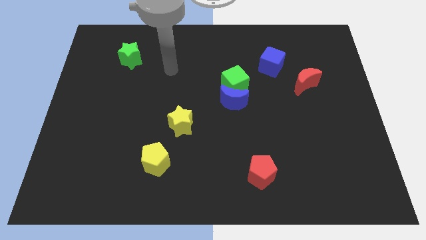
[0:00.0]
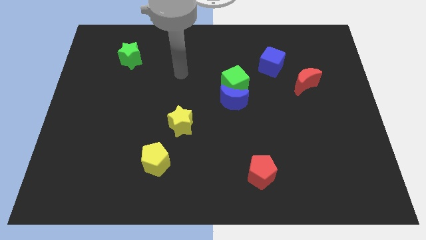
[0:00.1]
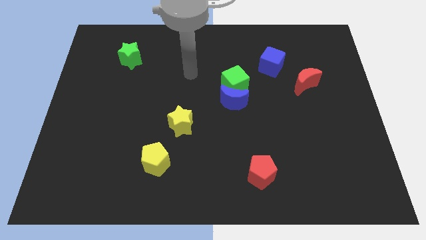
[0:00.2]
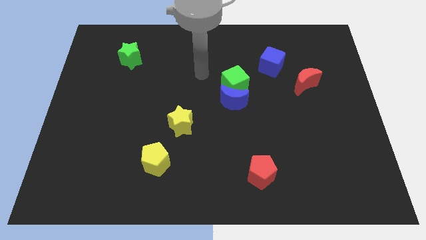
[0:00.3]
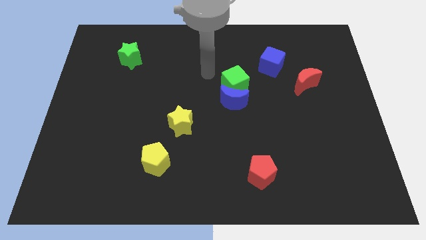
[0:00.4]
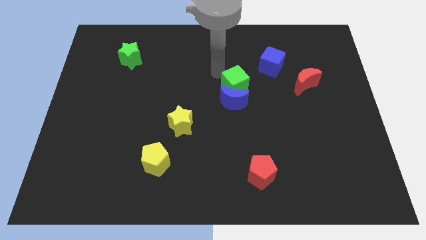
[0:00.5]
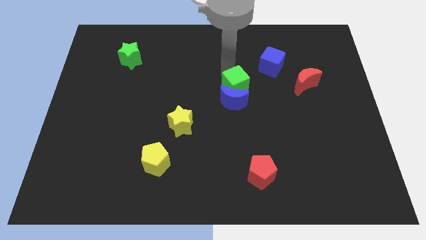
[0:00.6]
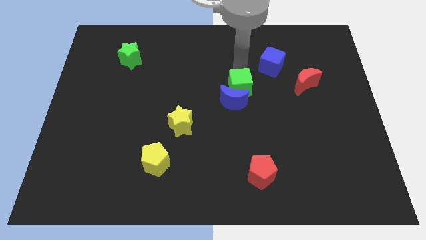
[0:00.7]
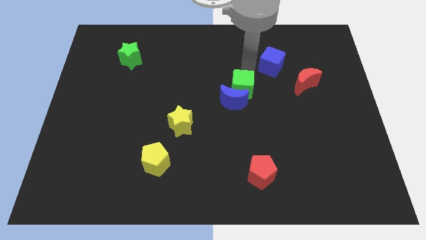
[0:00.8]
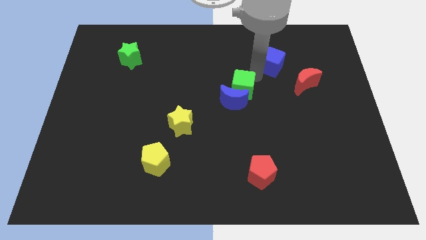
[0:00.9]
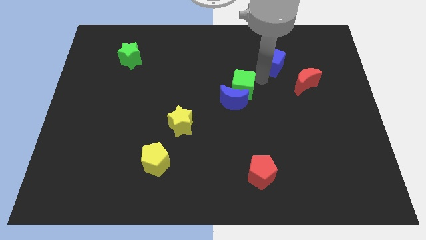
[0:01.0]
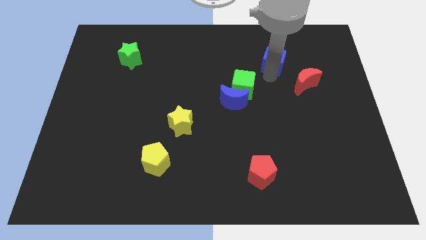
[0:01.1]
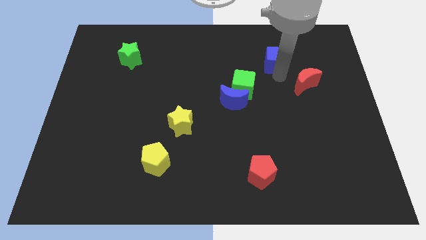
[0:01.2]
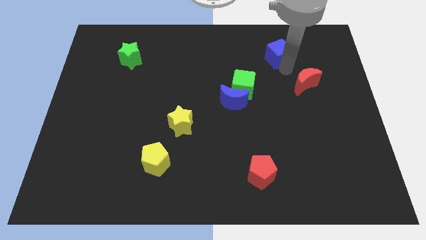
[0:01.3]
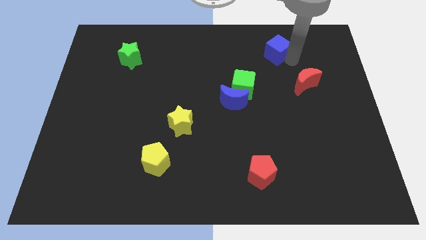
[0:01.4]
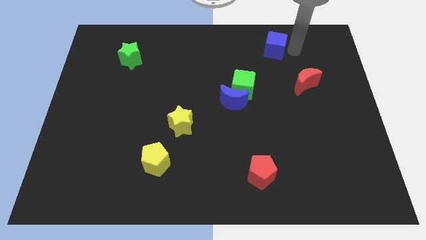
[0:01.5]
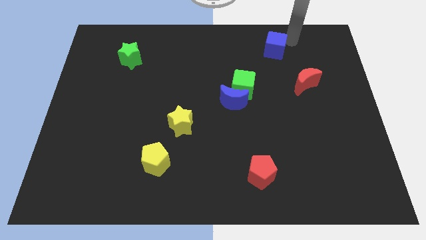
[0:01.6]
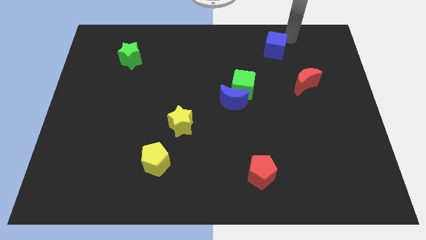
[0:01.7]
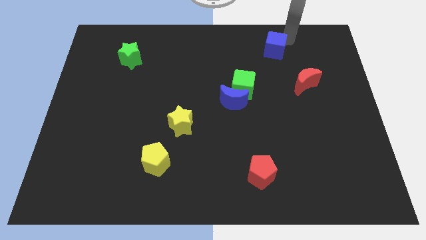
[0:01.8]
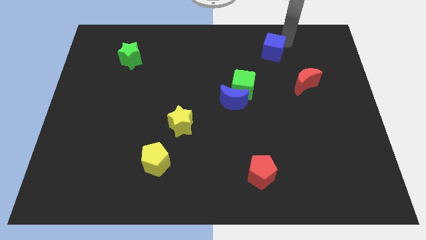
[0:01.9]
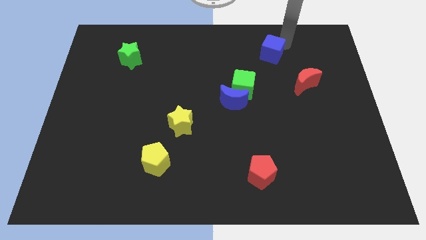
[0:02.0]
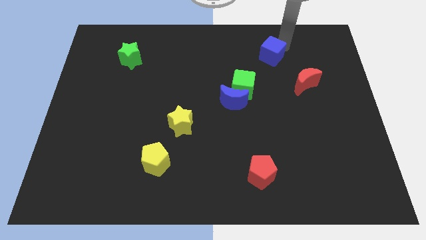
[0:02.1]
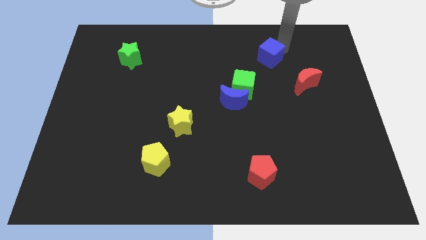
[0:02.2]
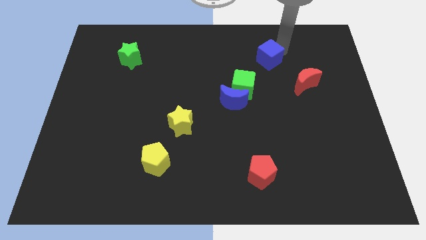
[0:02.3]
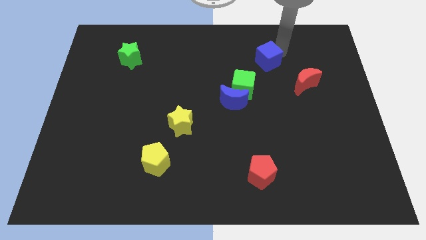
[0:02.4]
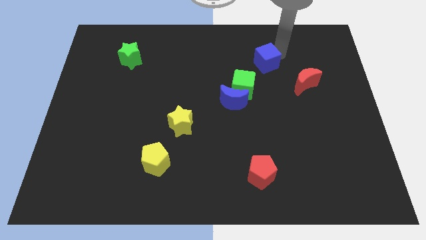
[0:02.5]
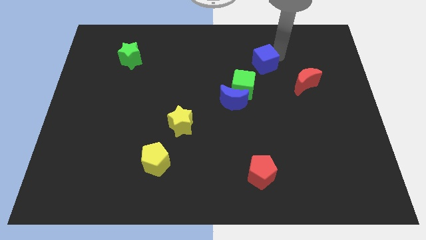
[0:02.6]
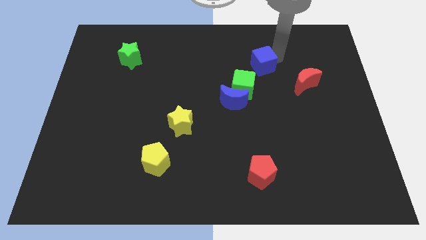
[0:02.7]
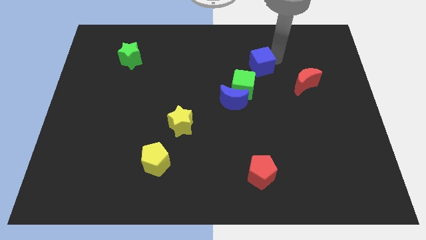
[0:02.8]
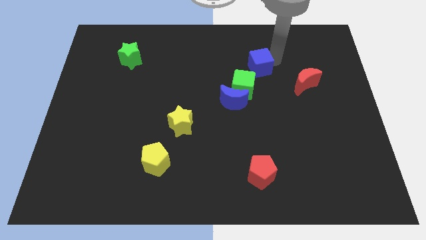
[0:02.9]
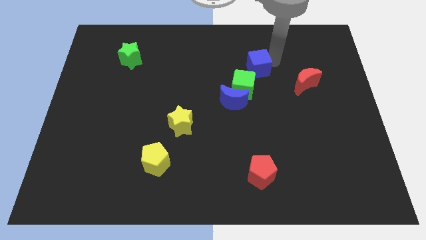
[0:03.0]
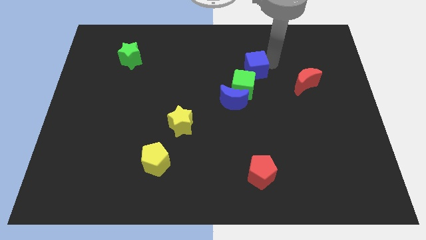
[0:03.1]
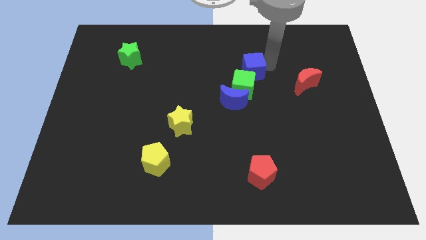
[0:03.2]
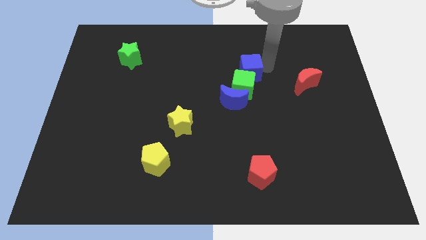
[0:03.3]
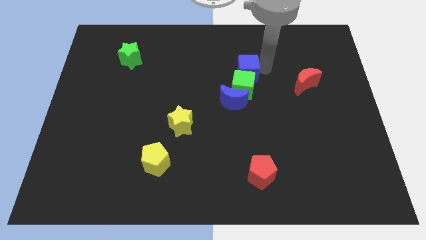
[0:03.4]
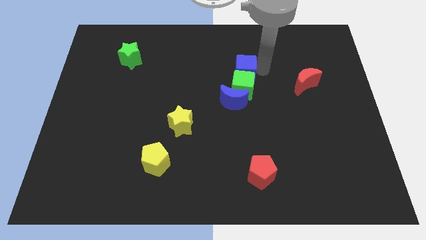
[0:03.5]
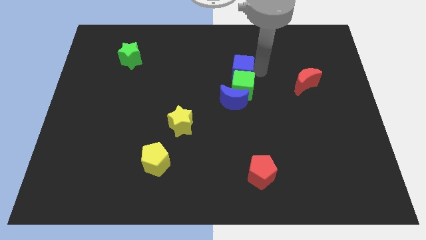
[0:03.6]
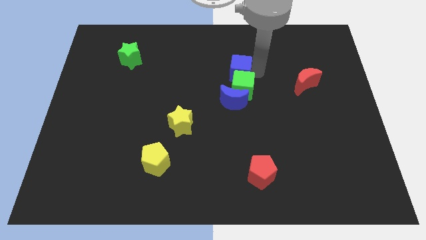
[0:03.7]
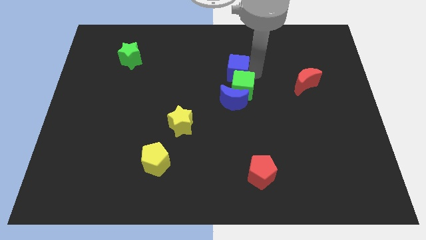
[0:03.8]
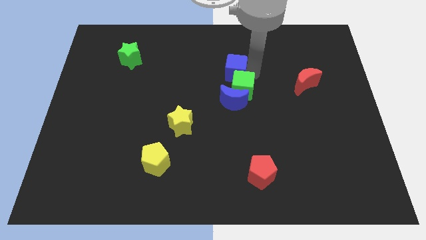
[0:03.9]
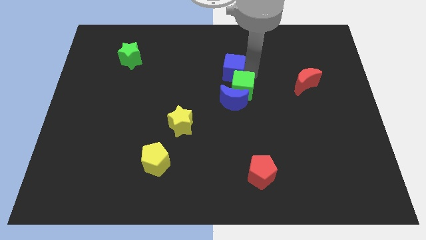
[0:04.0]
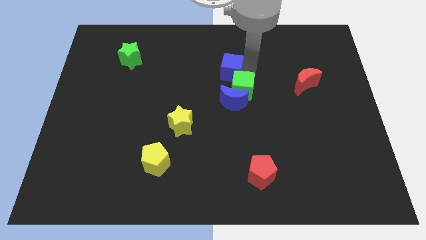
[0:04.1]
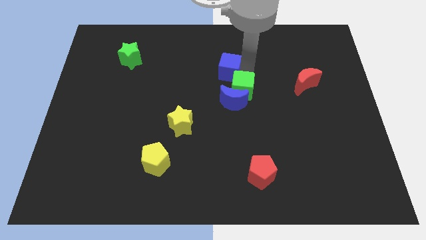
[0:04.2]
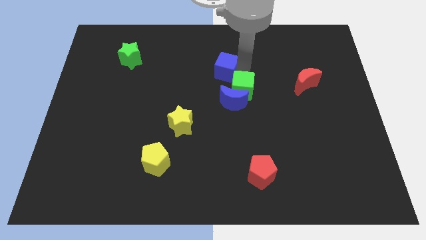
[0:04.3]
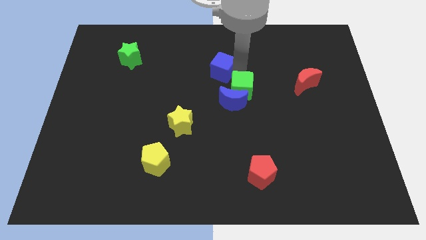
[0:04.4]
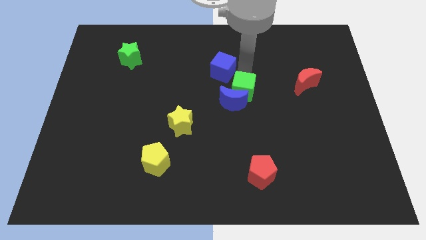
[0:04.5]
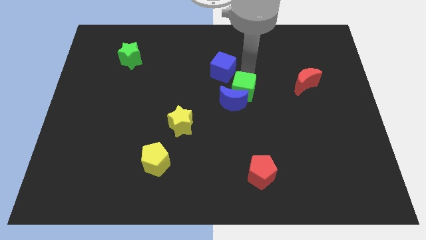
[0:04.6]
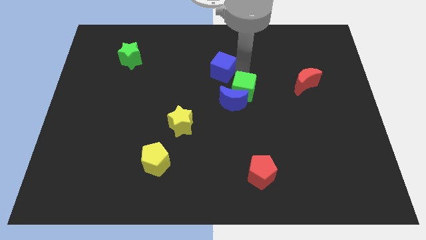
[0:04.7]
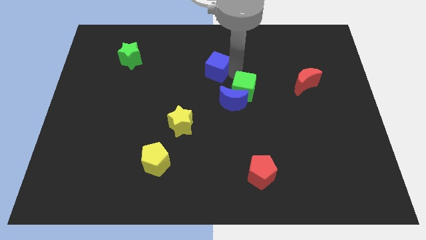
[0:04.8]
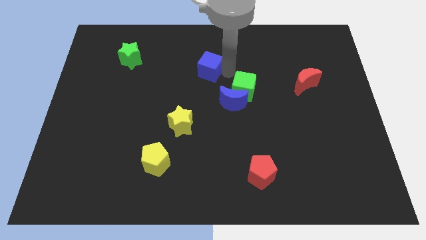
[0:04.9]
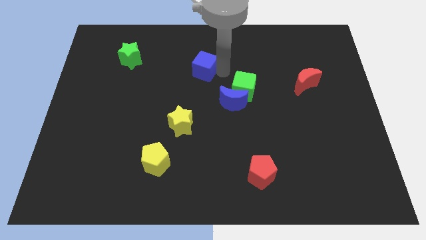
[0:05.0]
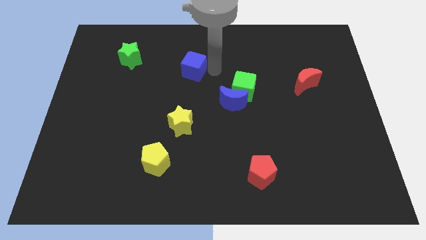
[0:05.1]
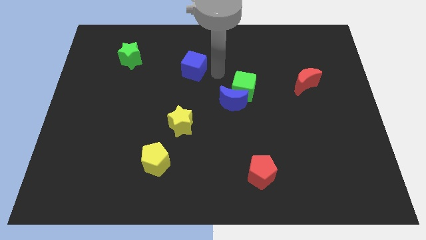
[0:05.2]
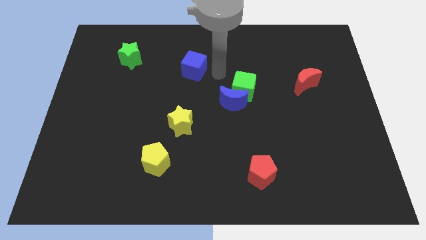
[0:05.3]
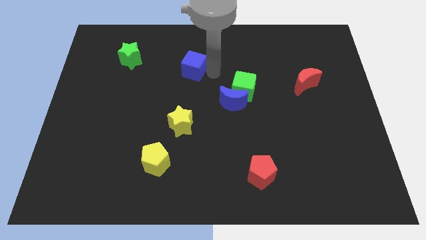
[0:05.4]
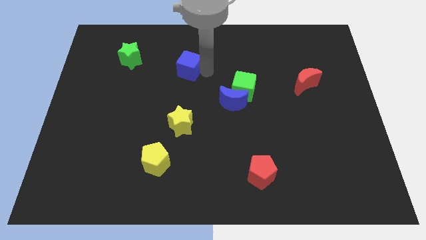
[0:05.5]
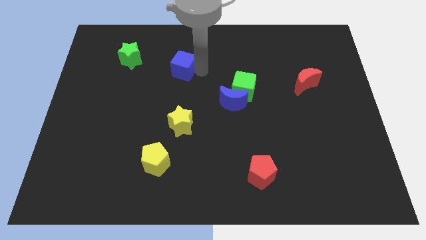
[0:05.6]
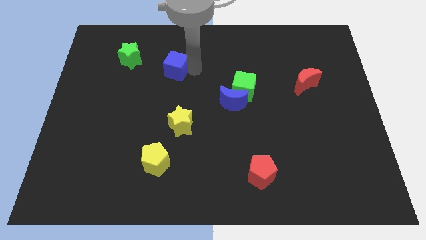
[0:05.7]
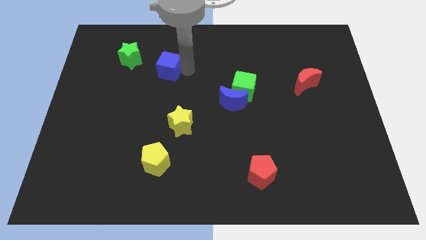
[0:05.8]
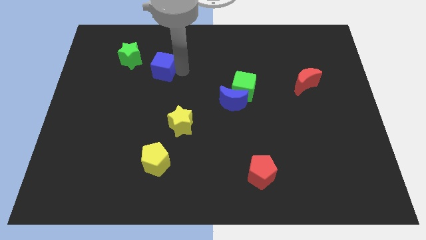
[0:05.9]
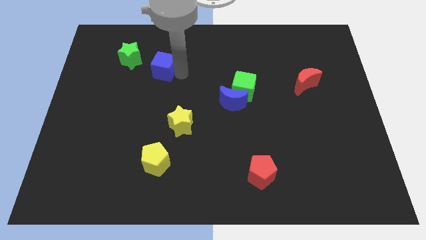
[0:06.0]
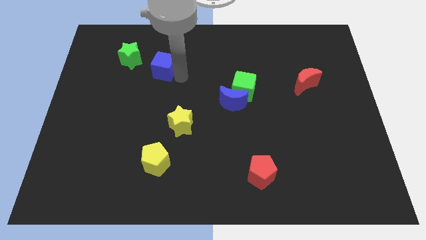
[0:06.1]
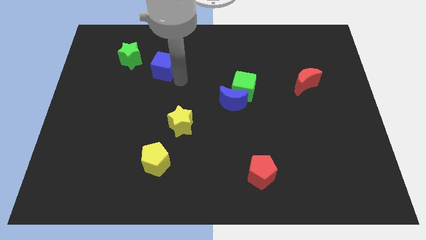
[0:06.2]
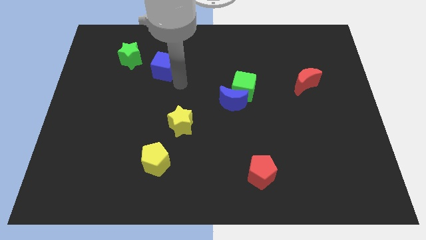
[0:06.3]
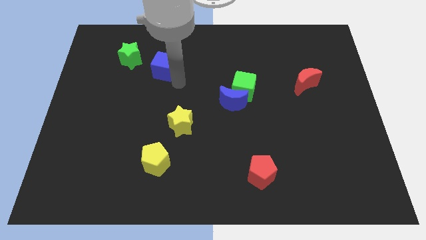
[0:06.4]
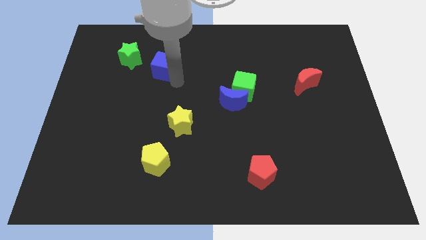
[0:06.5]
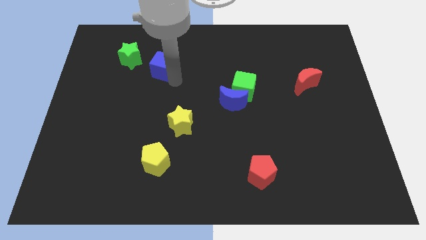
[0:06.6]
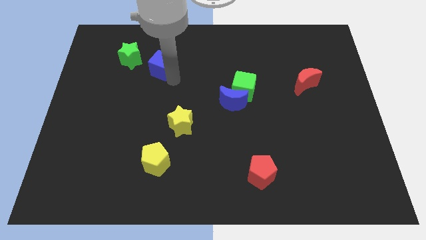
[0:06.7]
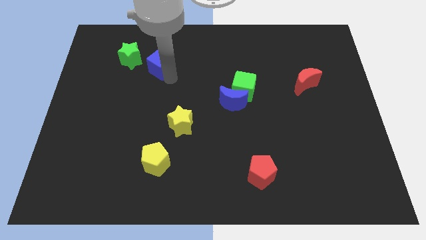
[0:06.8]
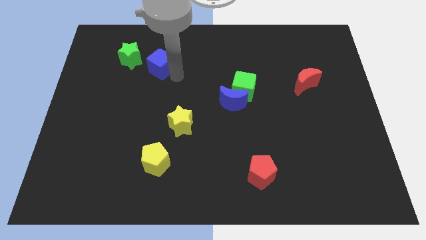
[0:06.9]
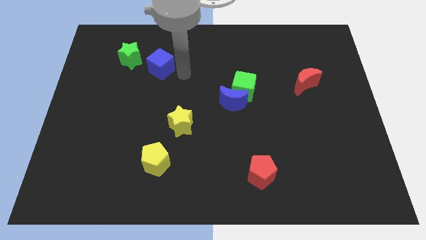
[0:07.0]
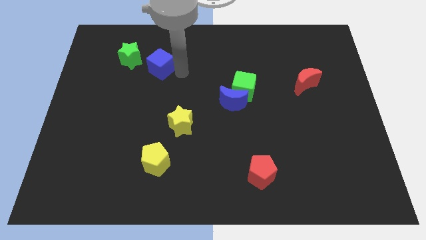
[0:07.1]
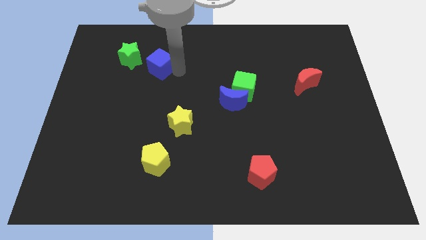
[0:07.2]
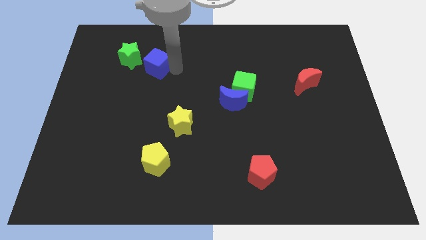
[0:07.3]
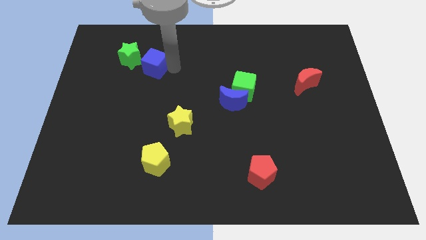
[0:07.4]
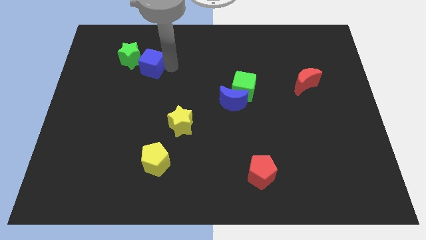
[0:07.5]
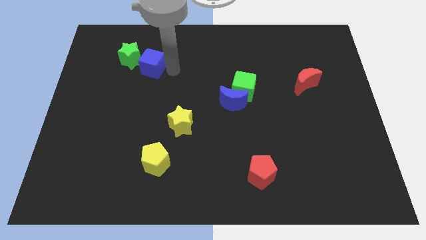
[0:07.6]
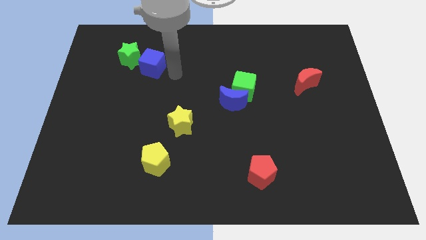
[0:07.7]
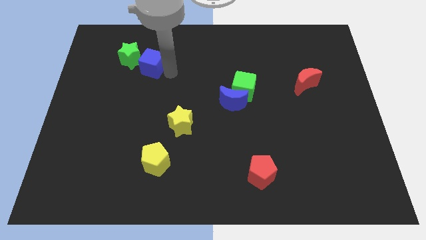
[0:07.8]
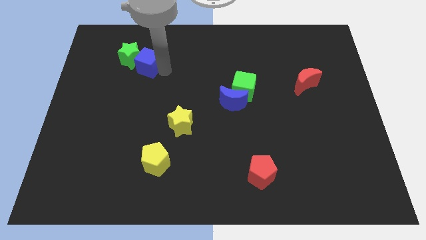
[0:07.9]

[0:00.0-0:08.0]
move the blue cube close to the green star
